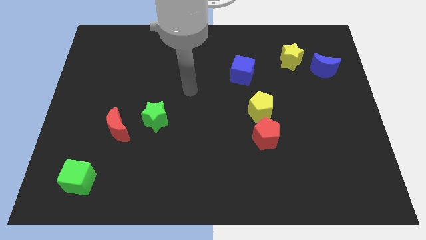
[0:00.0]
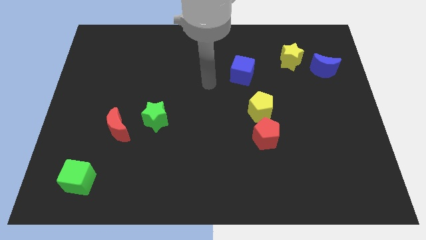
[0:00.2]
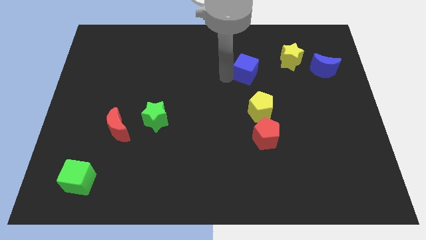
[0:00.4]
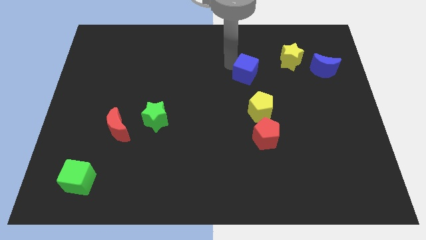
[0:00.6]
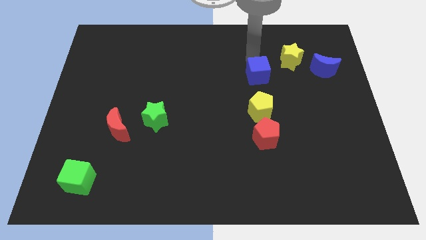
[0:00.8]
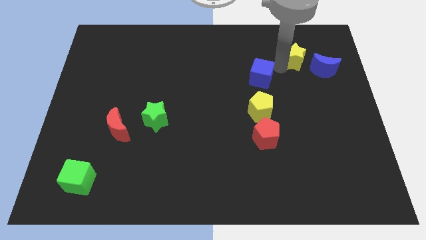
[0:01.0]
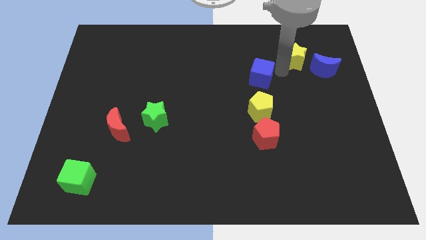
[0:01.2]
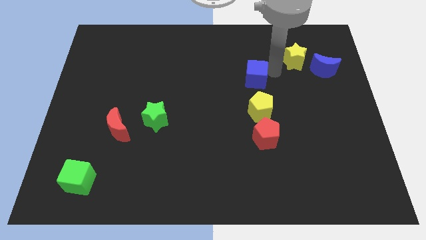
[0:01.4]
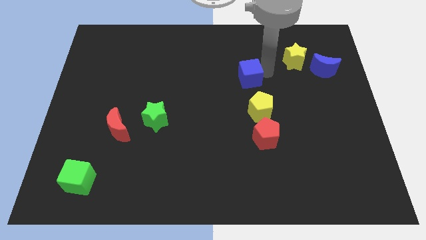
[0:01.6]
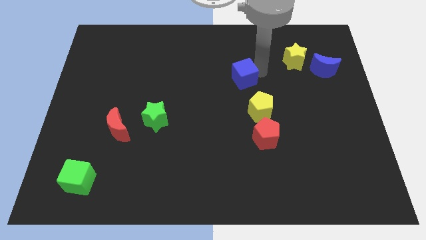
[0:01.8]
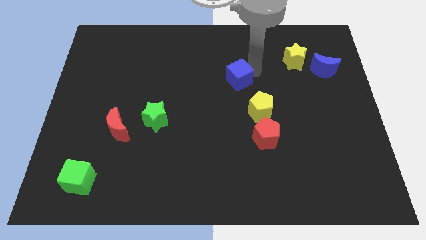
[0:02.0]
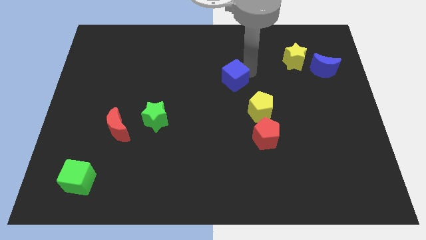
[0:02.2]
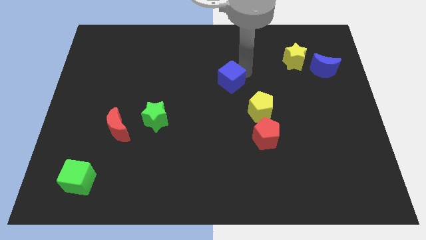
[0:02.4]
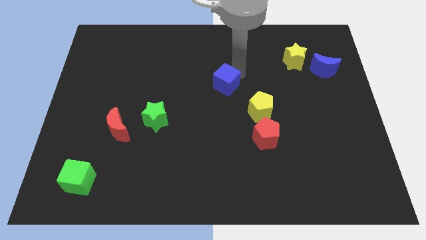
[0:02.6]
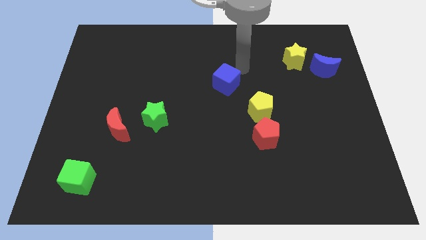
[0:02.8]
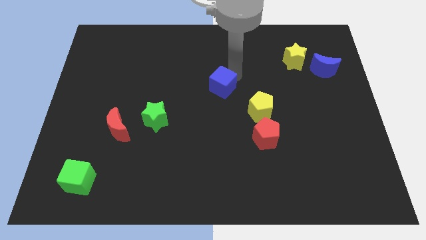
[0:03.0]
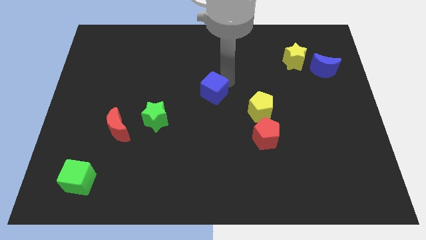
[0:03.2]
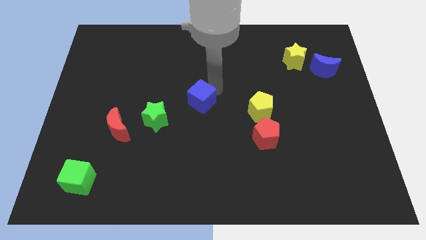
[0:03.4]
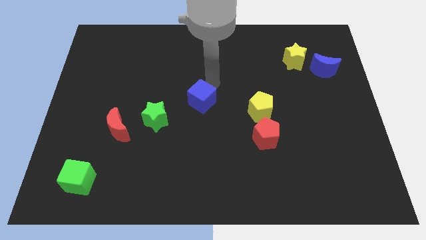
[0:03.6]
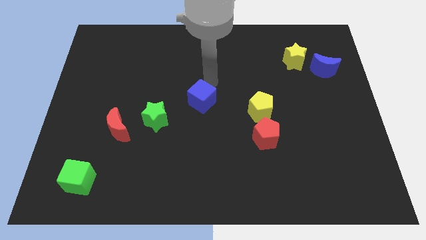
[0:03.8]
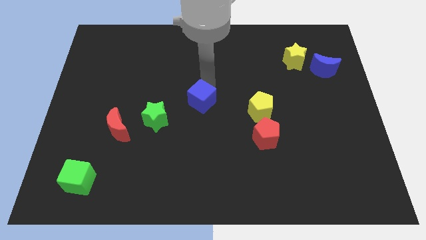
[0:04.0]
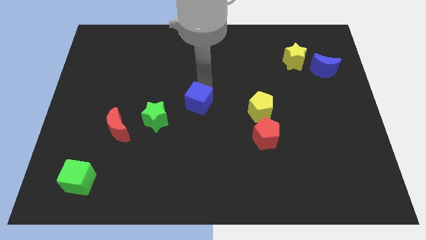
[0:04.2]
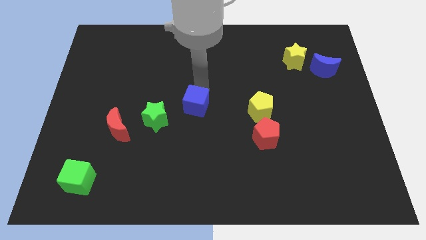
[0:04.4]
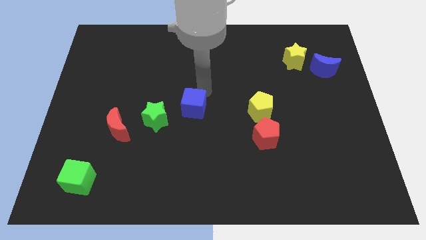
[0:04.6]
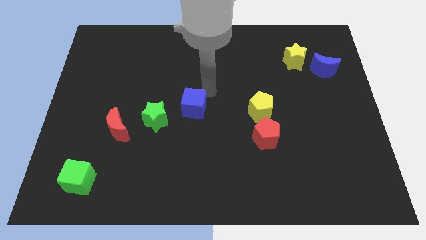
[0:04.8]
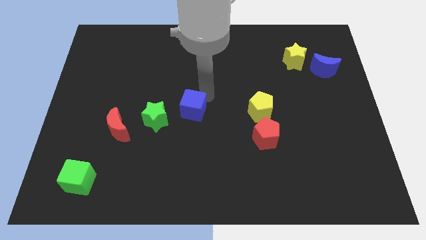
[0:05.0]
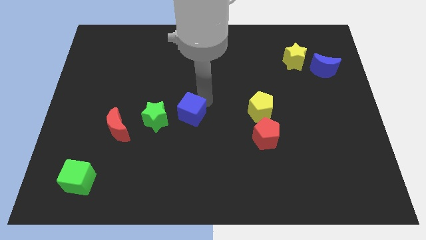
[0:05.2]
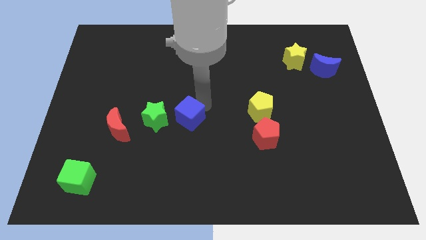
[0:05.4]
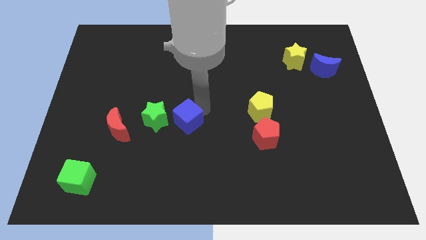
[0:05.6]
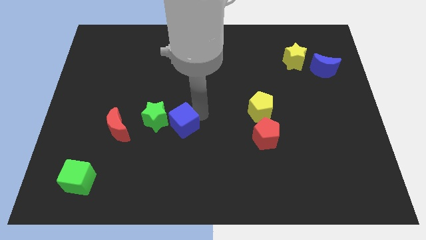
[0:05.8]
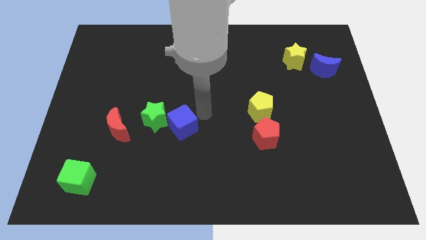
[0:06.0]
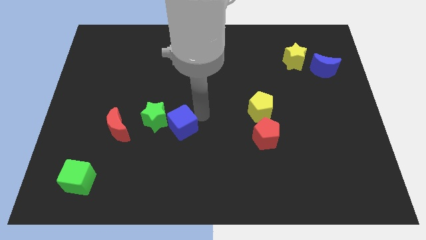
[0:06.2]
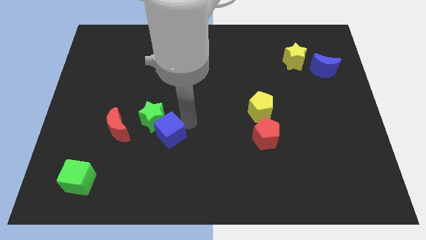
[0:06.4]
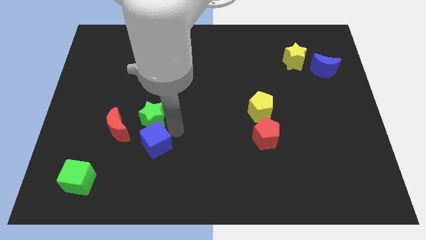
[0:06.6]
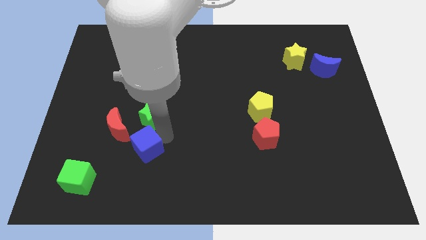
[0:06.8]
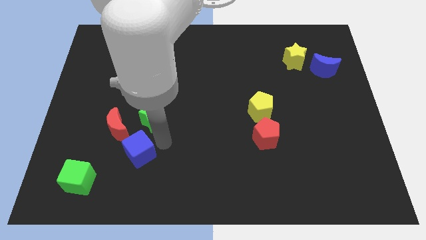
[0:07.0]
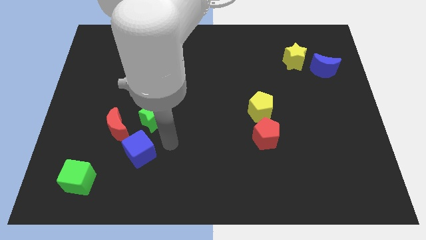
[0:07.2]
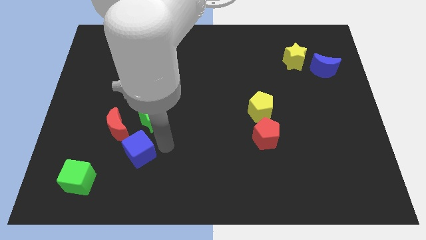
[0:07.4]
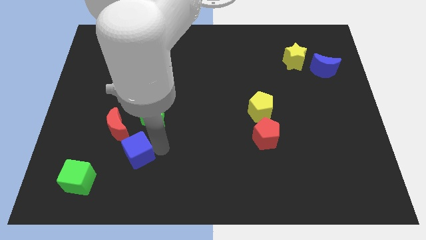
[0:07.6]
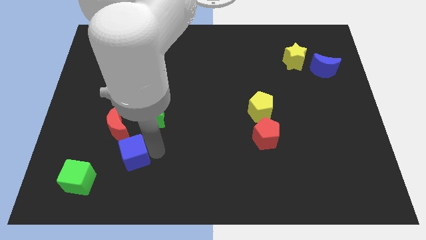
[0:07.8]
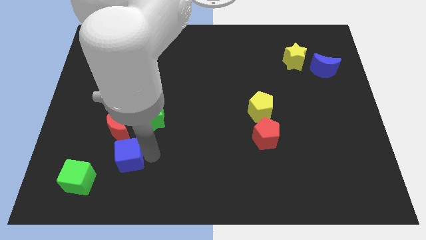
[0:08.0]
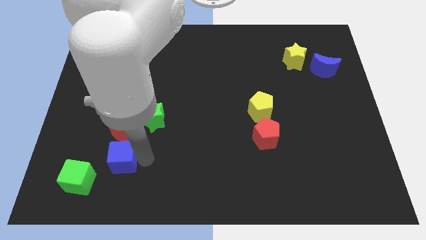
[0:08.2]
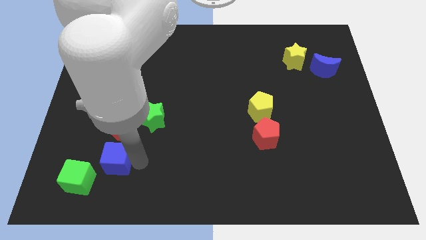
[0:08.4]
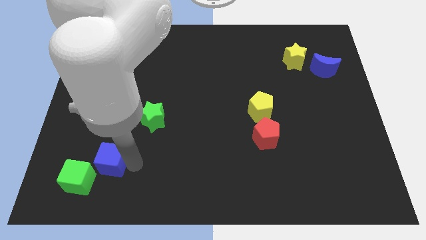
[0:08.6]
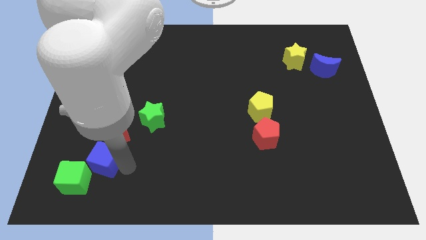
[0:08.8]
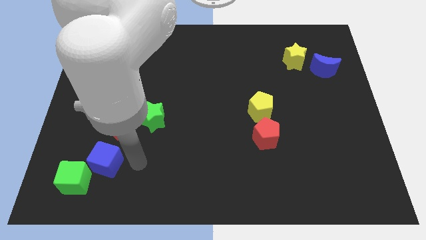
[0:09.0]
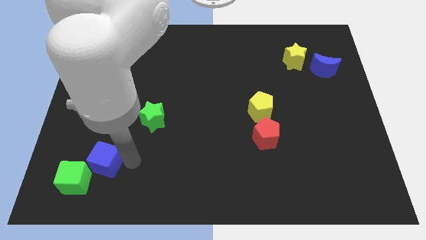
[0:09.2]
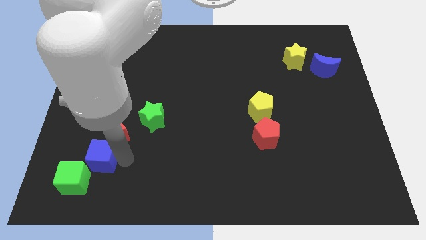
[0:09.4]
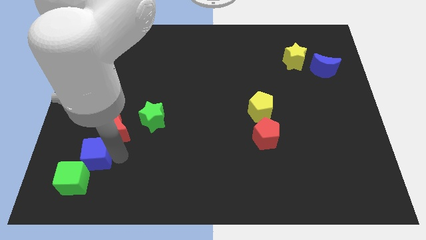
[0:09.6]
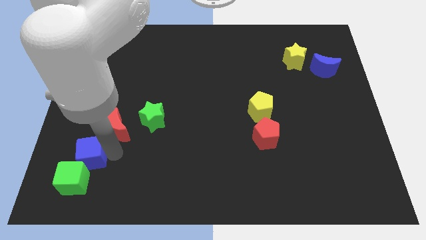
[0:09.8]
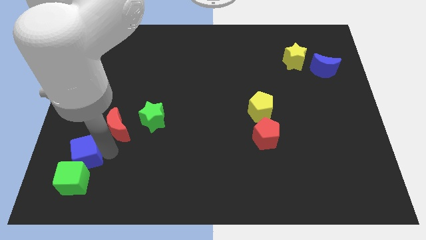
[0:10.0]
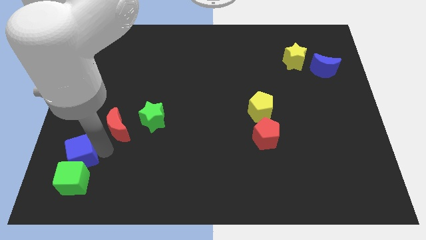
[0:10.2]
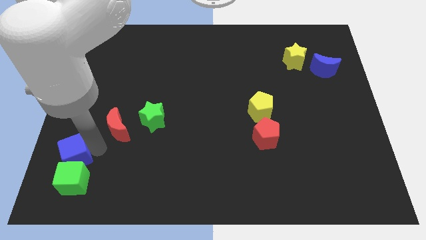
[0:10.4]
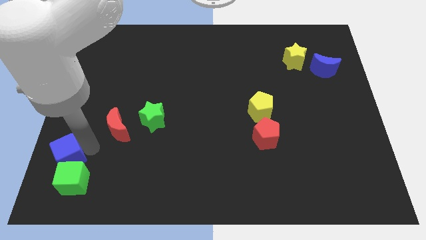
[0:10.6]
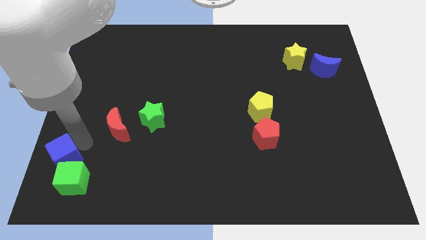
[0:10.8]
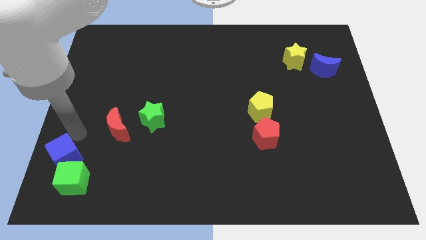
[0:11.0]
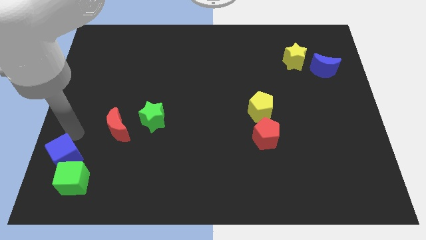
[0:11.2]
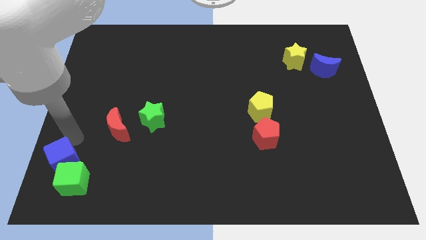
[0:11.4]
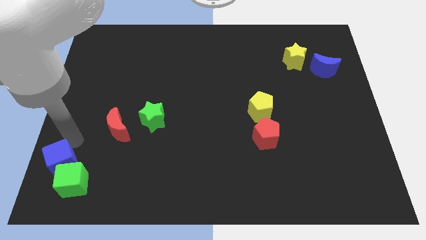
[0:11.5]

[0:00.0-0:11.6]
put the blue cube to the lower left corner

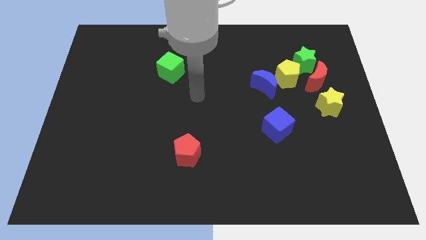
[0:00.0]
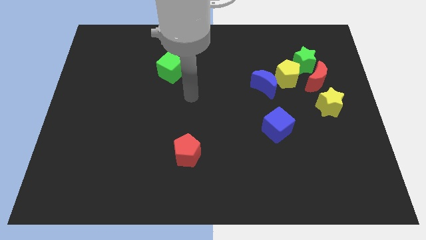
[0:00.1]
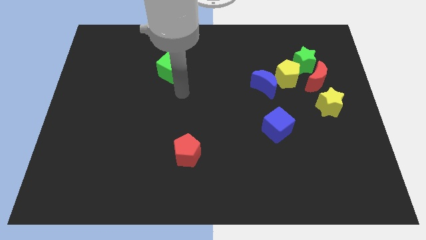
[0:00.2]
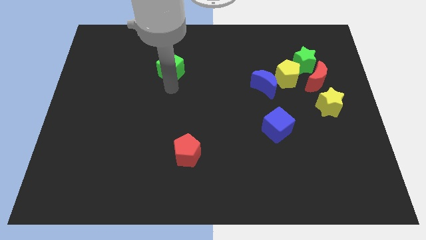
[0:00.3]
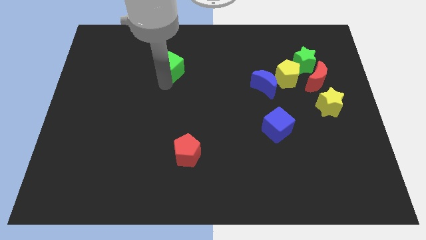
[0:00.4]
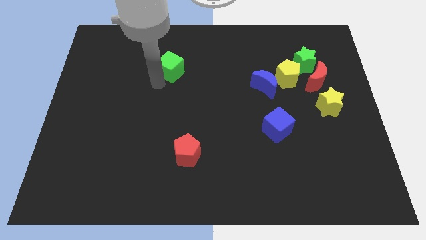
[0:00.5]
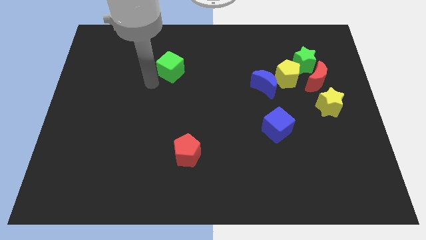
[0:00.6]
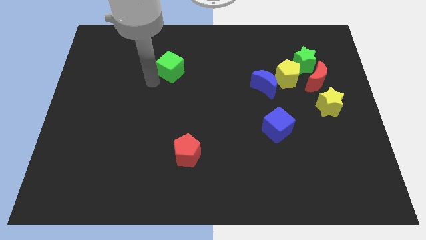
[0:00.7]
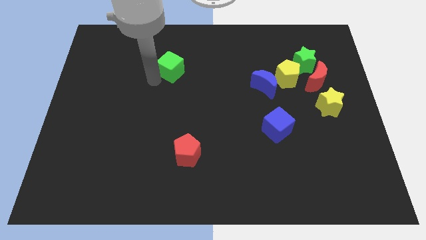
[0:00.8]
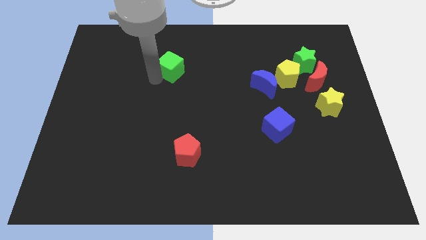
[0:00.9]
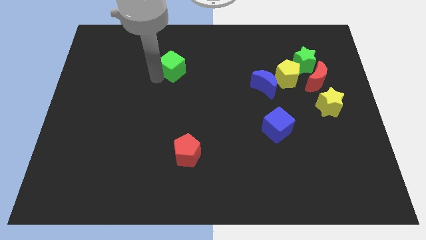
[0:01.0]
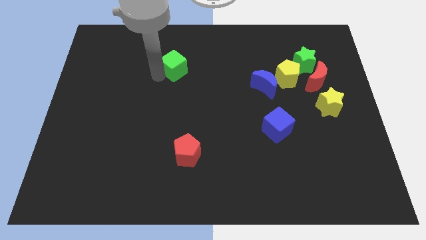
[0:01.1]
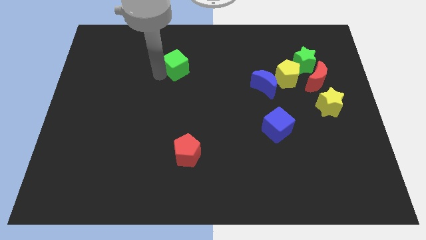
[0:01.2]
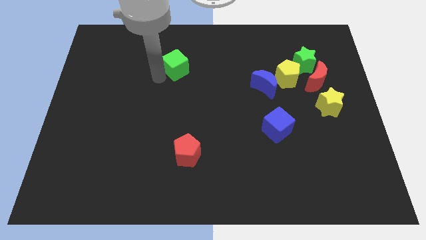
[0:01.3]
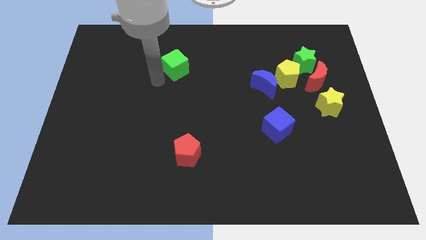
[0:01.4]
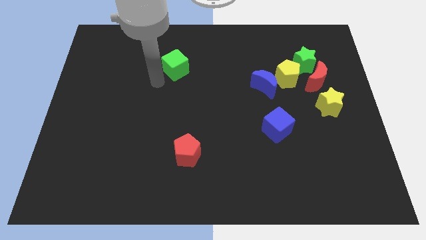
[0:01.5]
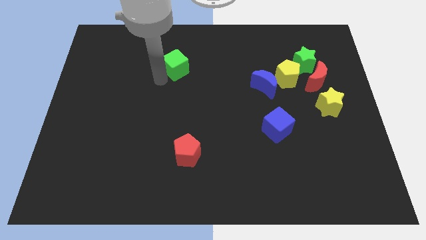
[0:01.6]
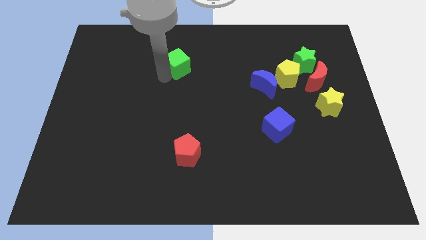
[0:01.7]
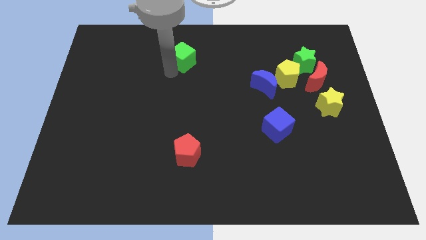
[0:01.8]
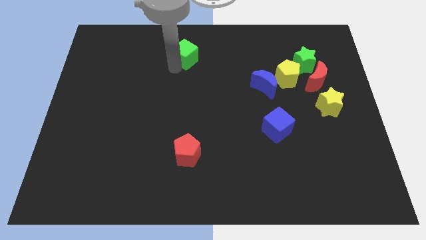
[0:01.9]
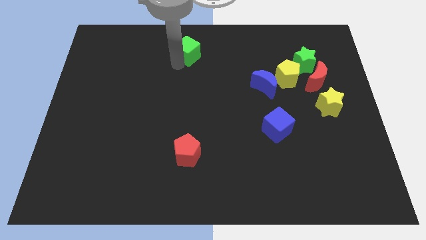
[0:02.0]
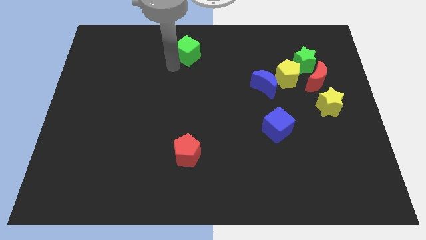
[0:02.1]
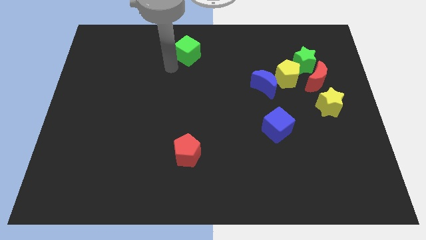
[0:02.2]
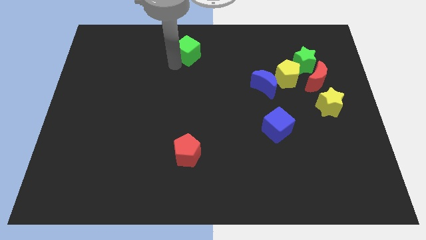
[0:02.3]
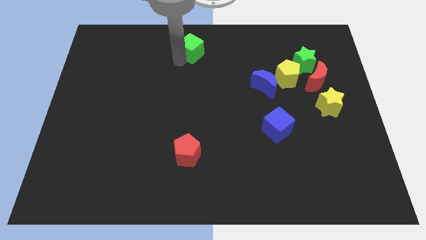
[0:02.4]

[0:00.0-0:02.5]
push the green cube to the towards your base
